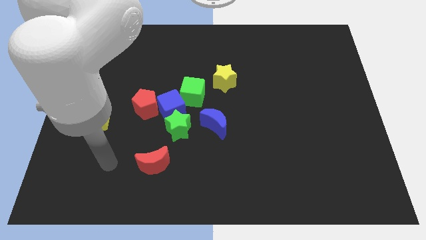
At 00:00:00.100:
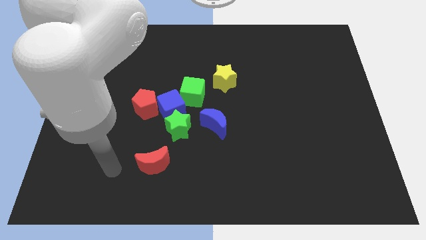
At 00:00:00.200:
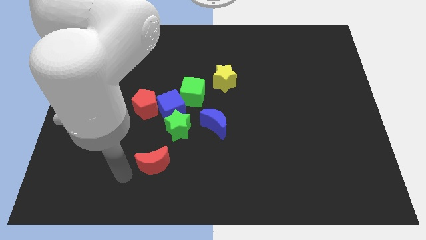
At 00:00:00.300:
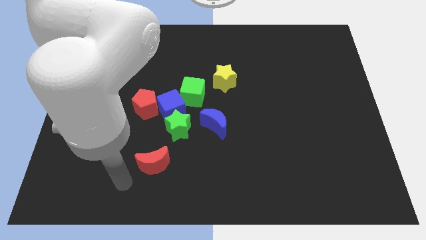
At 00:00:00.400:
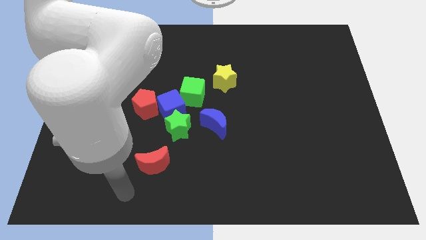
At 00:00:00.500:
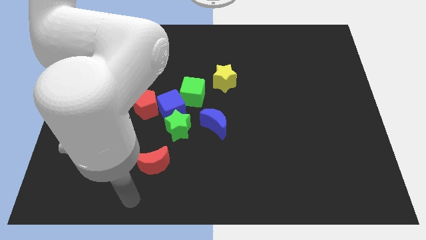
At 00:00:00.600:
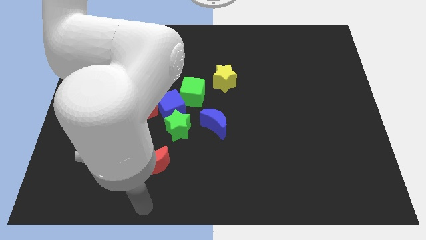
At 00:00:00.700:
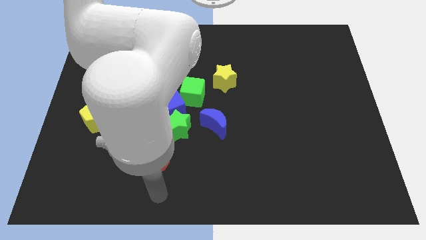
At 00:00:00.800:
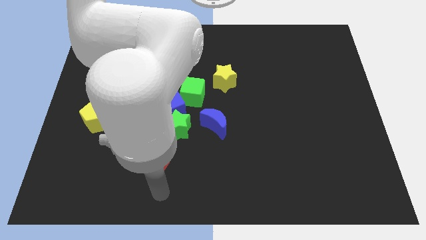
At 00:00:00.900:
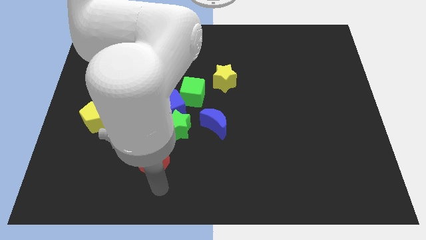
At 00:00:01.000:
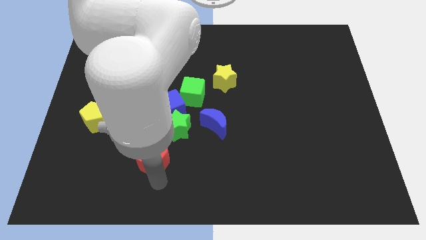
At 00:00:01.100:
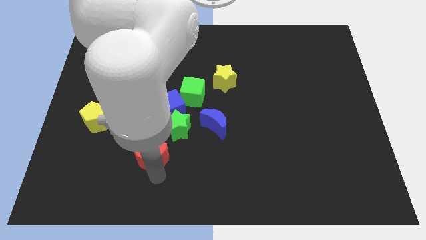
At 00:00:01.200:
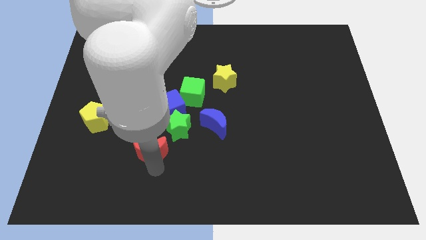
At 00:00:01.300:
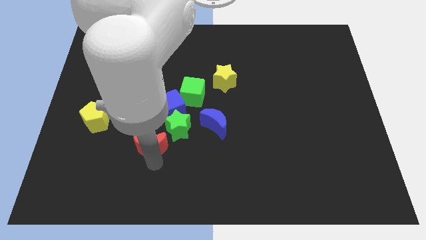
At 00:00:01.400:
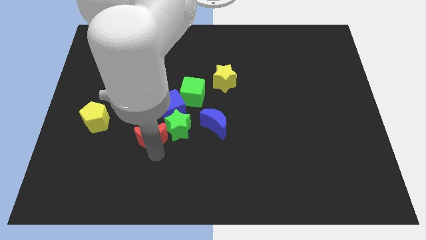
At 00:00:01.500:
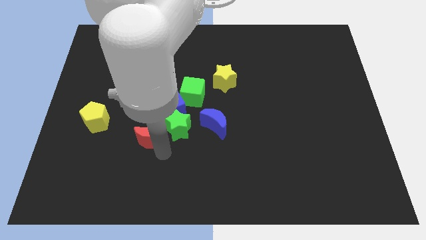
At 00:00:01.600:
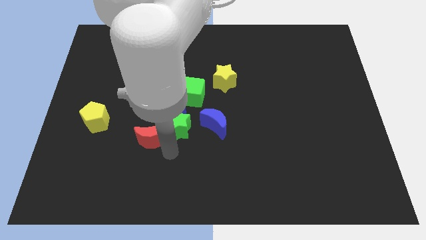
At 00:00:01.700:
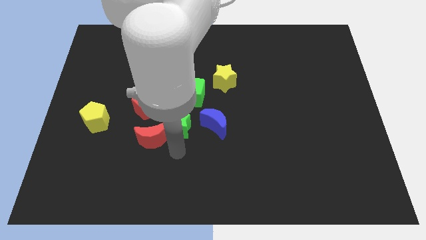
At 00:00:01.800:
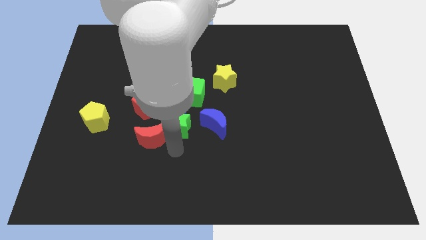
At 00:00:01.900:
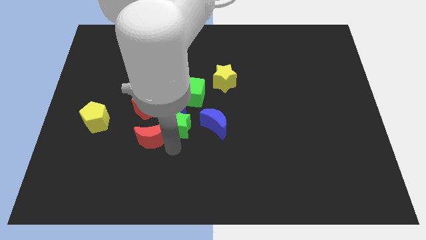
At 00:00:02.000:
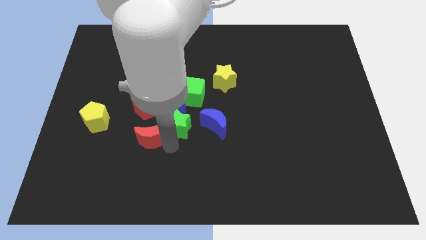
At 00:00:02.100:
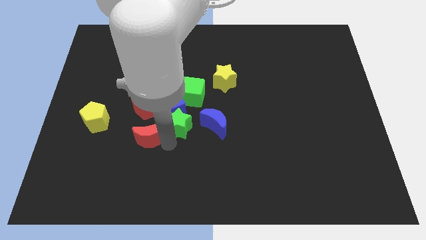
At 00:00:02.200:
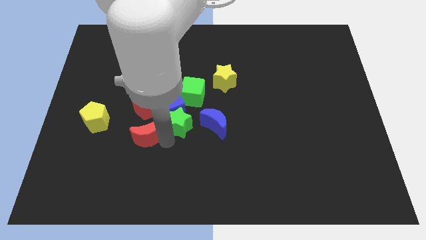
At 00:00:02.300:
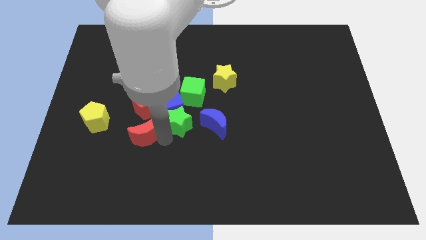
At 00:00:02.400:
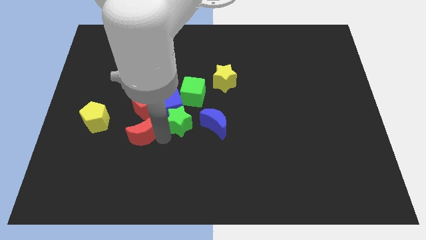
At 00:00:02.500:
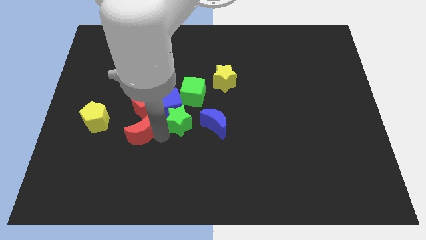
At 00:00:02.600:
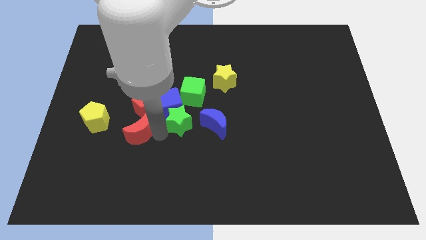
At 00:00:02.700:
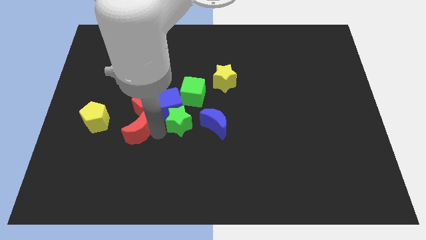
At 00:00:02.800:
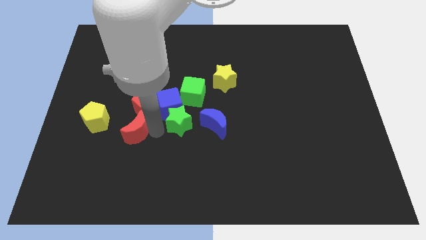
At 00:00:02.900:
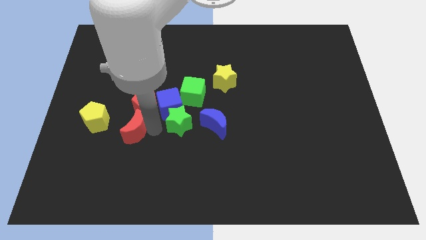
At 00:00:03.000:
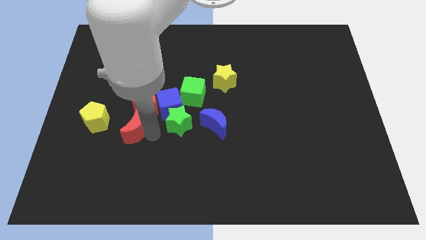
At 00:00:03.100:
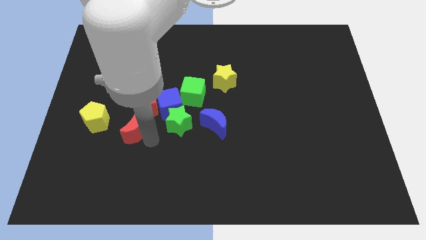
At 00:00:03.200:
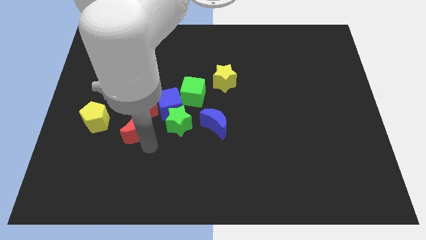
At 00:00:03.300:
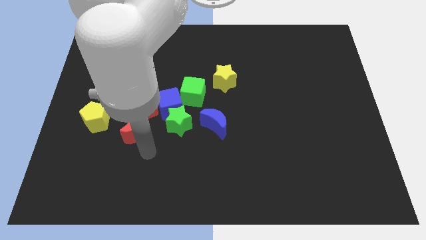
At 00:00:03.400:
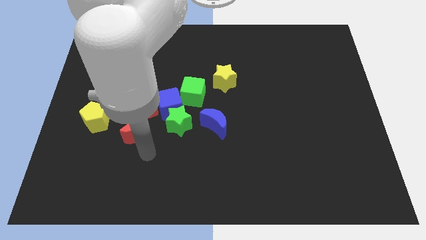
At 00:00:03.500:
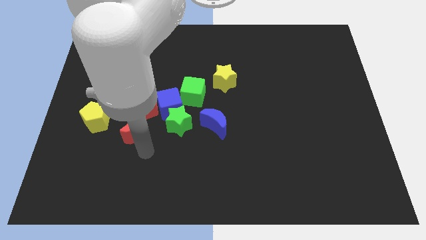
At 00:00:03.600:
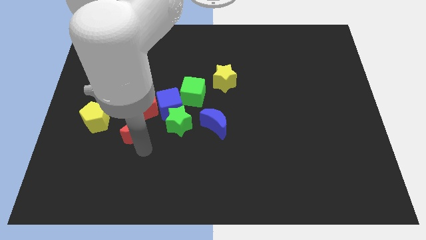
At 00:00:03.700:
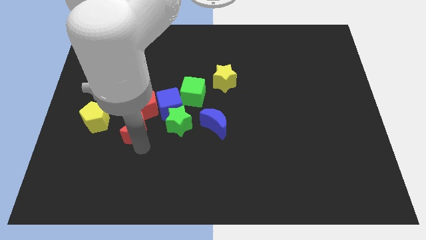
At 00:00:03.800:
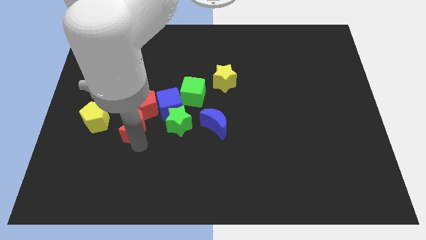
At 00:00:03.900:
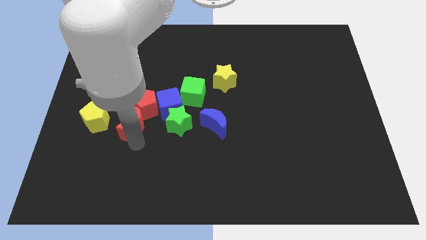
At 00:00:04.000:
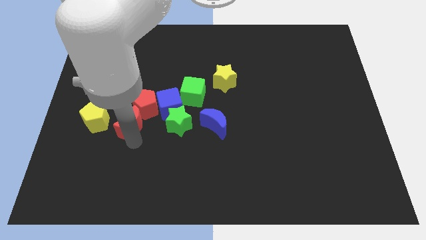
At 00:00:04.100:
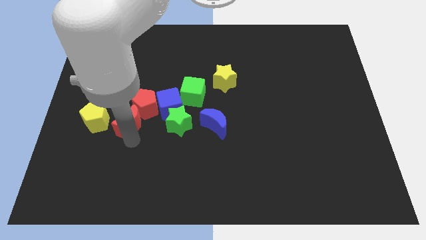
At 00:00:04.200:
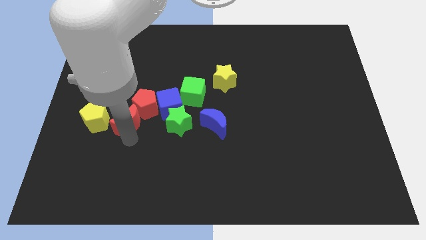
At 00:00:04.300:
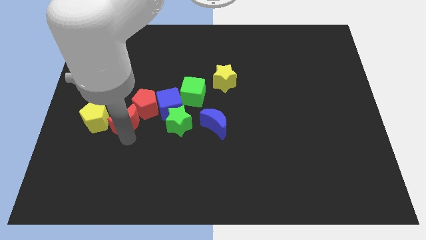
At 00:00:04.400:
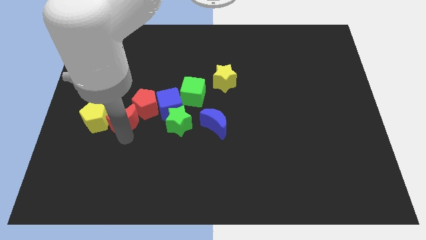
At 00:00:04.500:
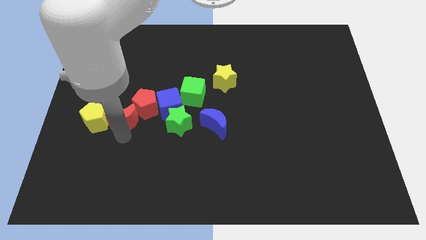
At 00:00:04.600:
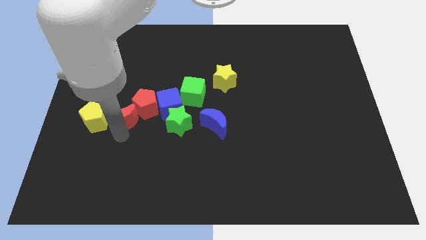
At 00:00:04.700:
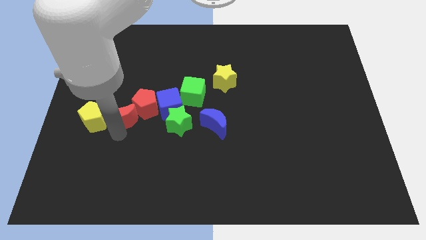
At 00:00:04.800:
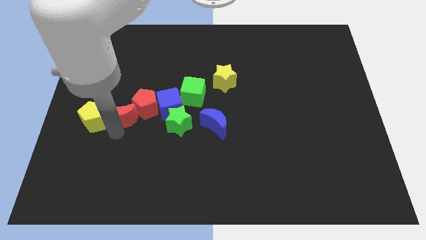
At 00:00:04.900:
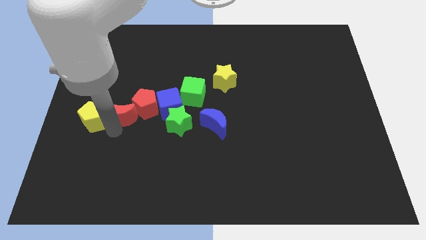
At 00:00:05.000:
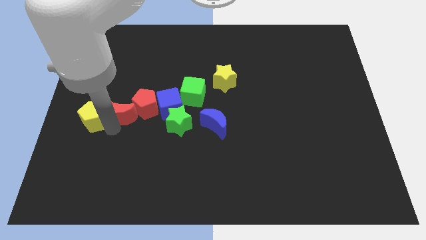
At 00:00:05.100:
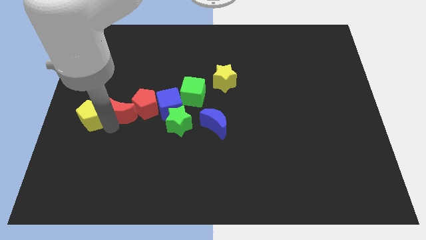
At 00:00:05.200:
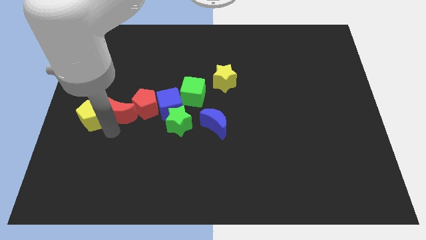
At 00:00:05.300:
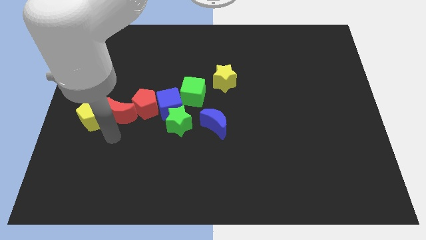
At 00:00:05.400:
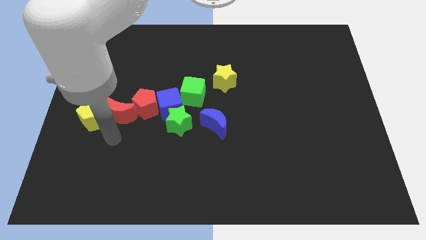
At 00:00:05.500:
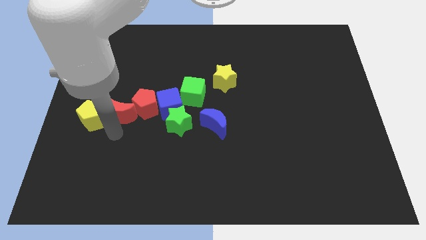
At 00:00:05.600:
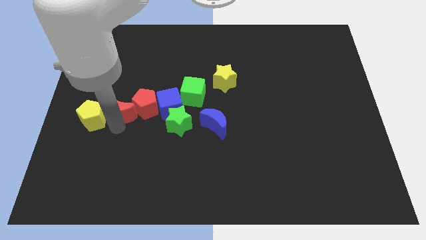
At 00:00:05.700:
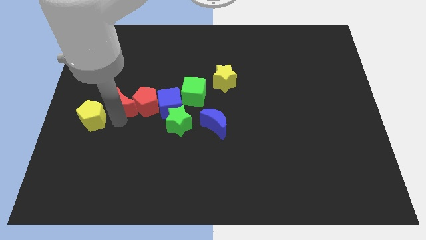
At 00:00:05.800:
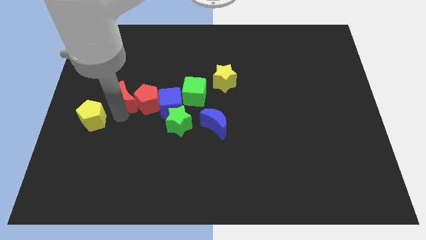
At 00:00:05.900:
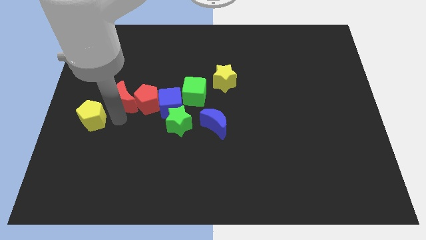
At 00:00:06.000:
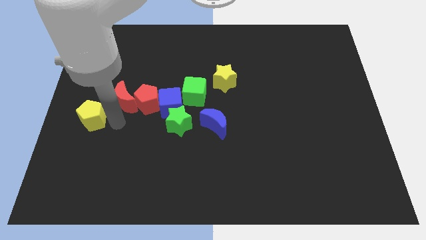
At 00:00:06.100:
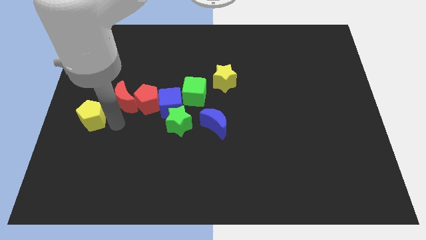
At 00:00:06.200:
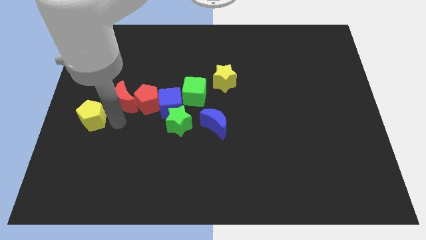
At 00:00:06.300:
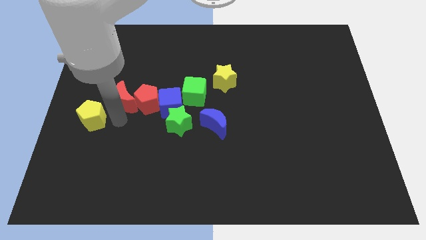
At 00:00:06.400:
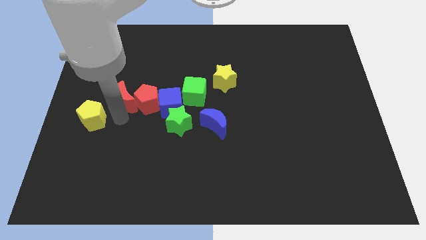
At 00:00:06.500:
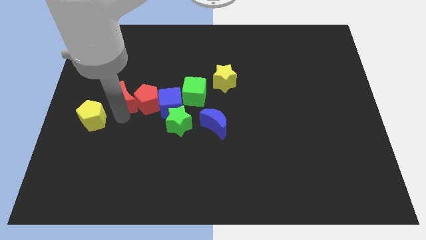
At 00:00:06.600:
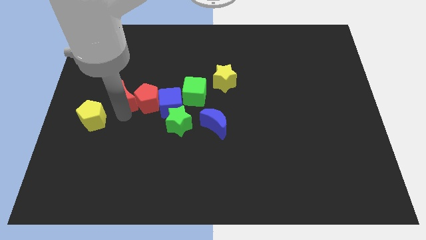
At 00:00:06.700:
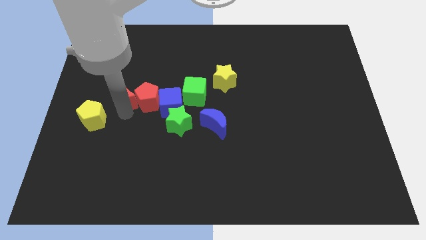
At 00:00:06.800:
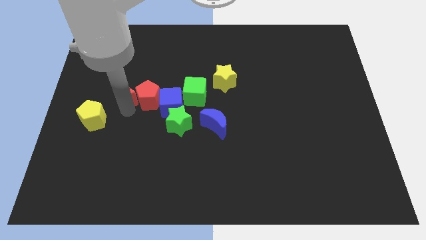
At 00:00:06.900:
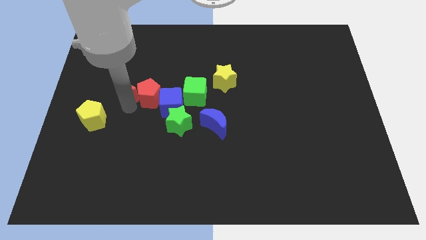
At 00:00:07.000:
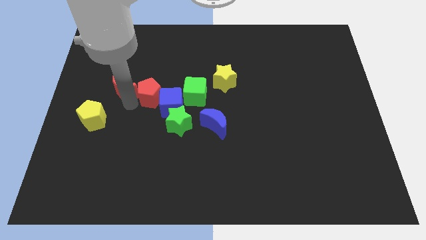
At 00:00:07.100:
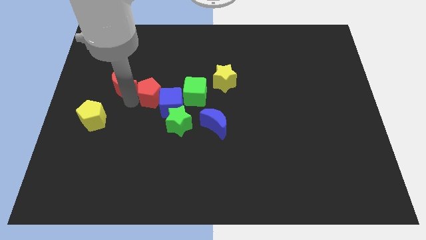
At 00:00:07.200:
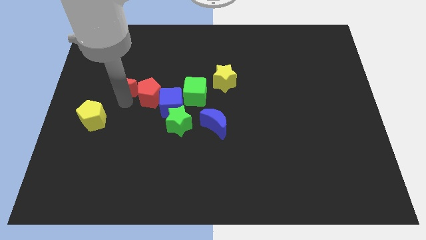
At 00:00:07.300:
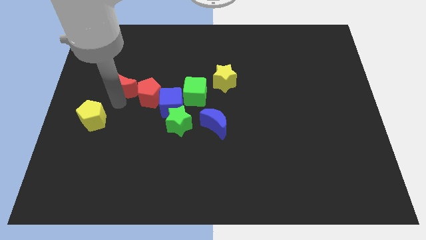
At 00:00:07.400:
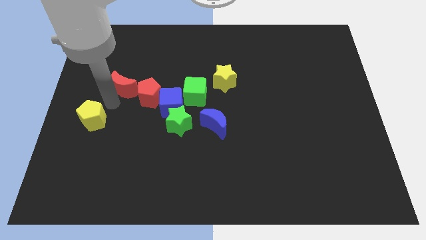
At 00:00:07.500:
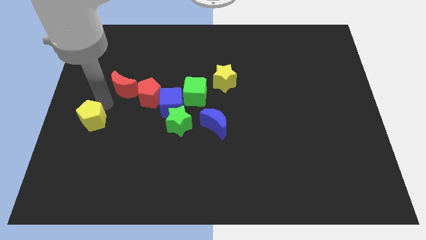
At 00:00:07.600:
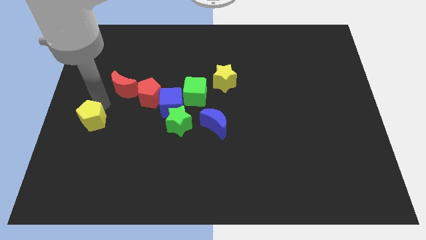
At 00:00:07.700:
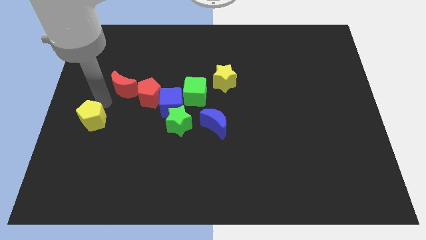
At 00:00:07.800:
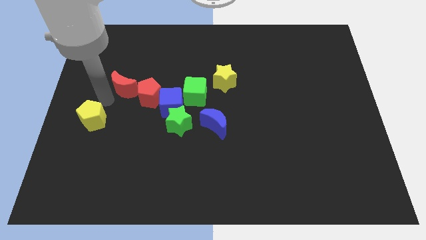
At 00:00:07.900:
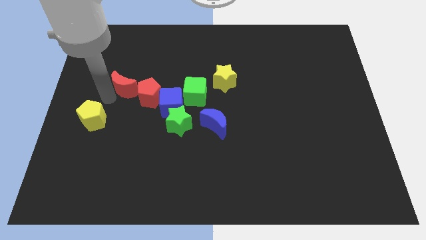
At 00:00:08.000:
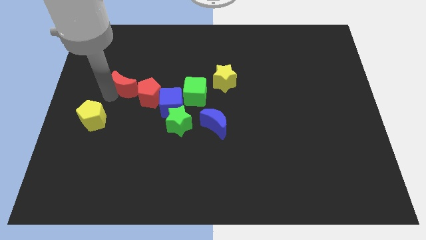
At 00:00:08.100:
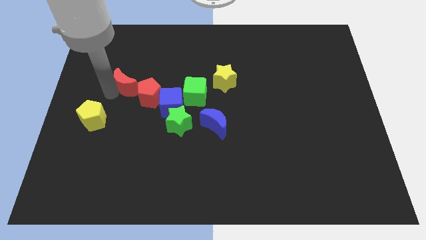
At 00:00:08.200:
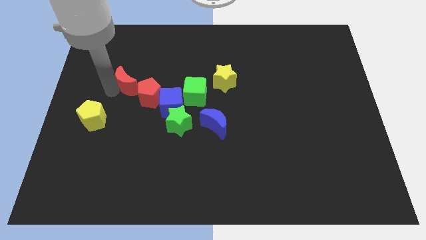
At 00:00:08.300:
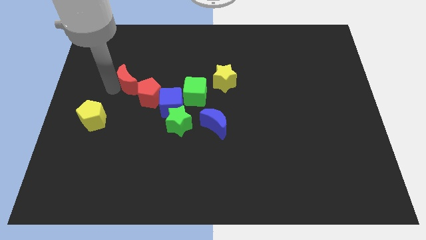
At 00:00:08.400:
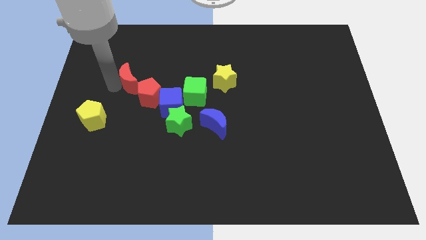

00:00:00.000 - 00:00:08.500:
slide the red moon upwards
